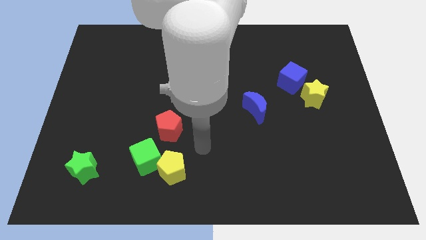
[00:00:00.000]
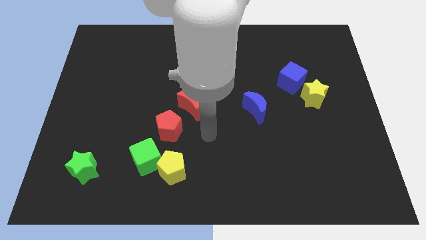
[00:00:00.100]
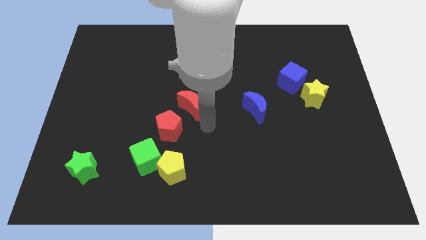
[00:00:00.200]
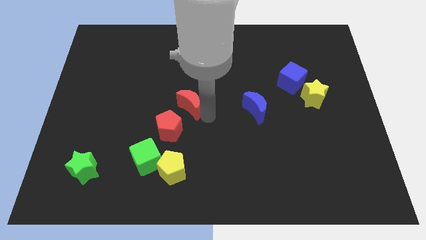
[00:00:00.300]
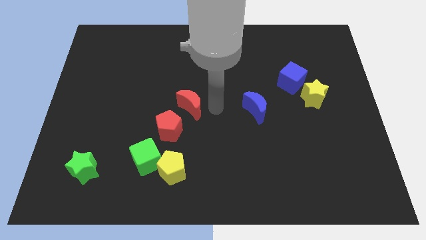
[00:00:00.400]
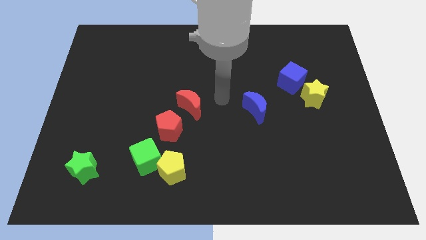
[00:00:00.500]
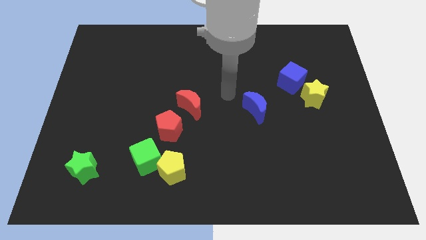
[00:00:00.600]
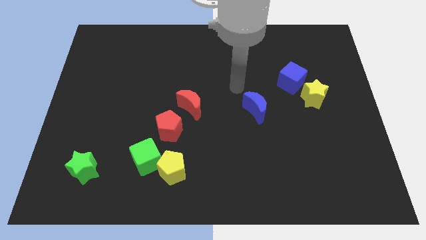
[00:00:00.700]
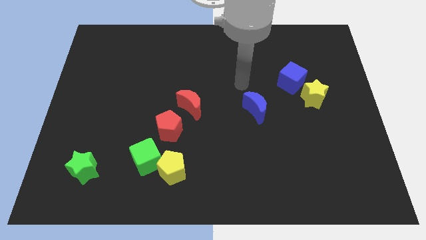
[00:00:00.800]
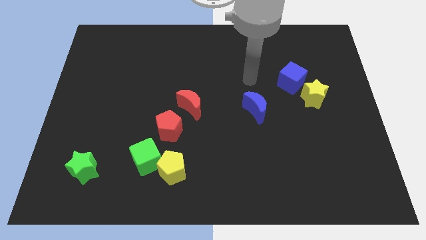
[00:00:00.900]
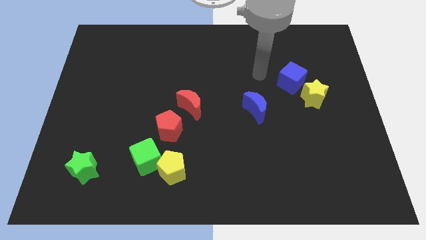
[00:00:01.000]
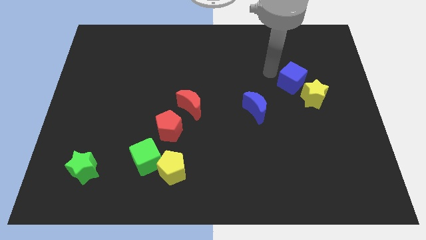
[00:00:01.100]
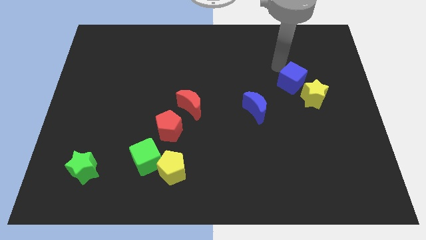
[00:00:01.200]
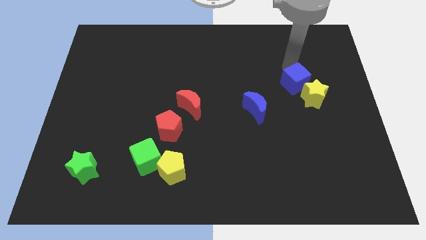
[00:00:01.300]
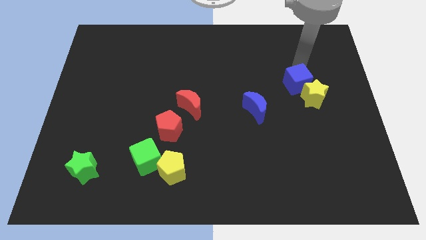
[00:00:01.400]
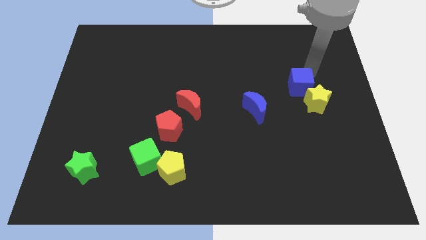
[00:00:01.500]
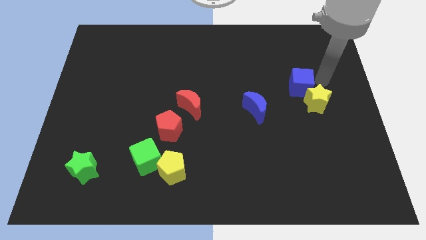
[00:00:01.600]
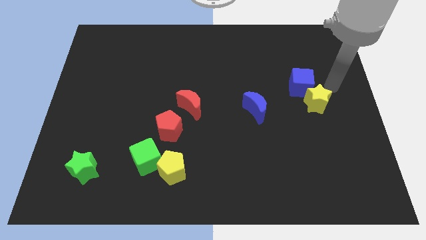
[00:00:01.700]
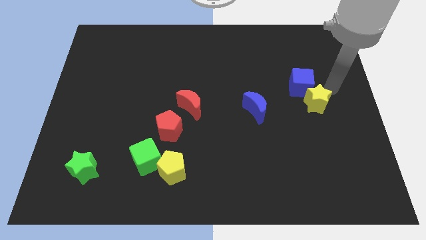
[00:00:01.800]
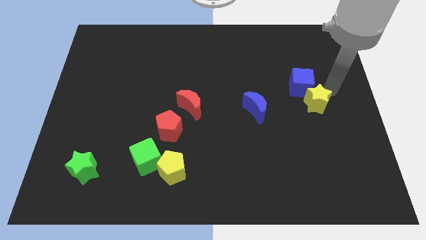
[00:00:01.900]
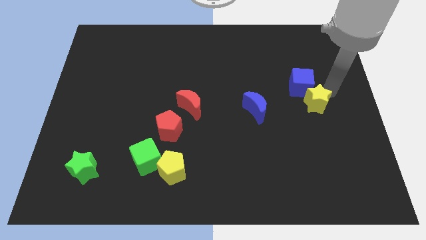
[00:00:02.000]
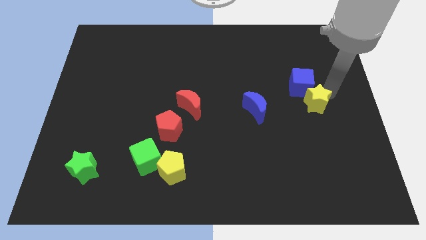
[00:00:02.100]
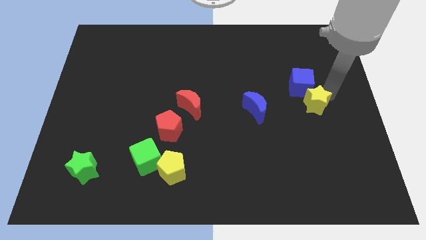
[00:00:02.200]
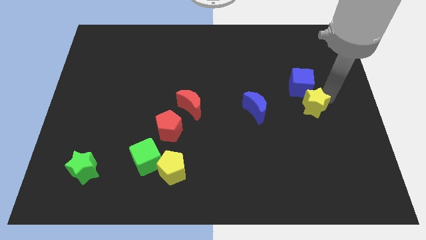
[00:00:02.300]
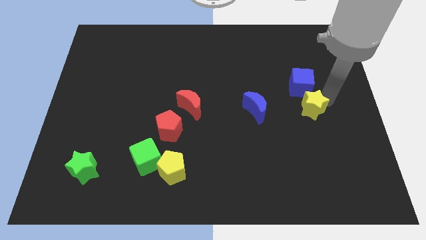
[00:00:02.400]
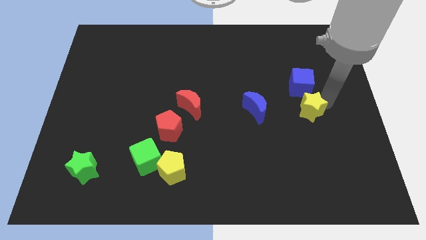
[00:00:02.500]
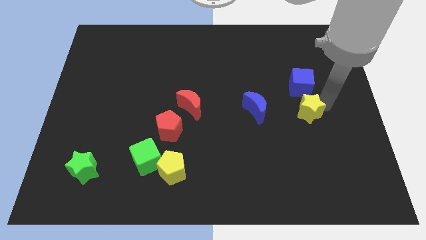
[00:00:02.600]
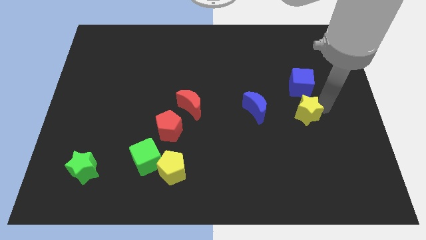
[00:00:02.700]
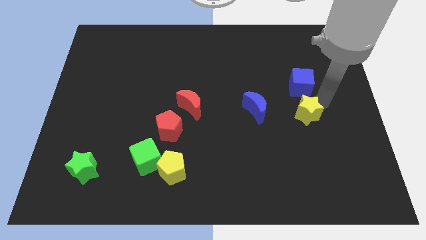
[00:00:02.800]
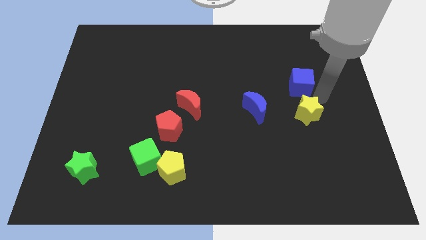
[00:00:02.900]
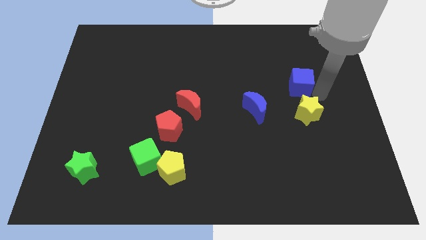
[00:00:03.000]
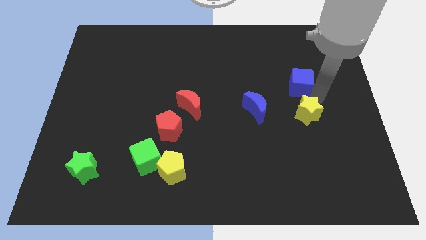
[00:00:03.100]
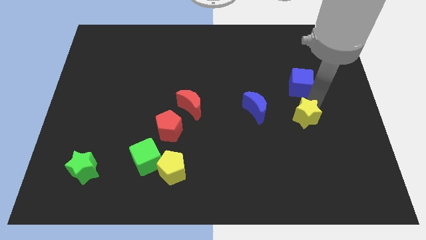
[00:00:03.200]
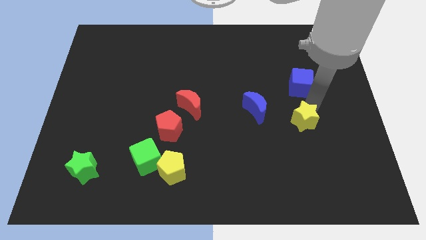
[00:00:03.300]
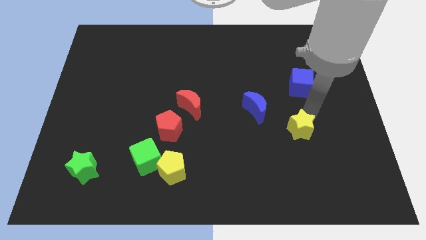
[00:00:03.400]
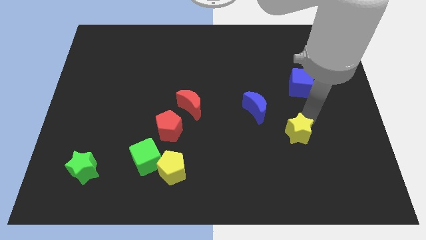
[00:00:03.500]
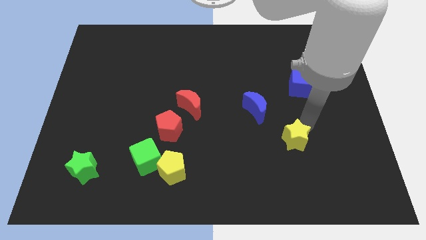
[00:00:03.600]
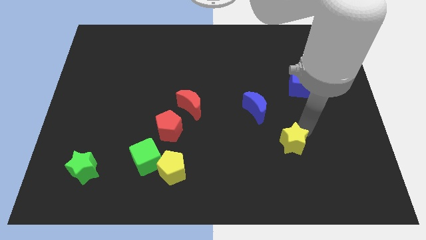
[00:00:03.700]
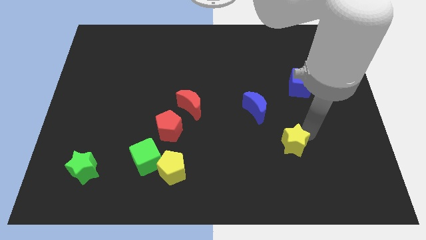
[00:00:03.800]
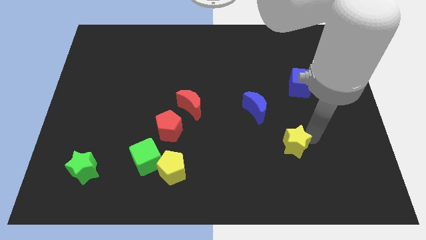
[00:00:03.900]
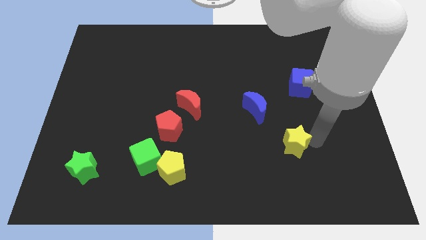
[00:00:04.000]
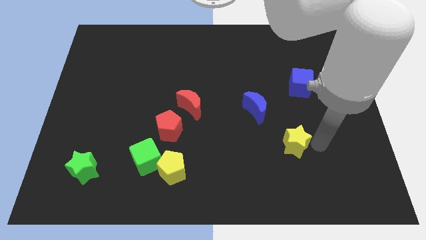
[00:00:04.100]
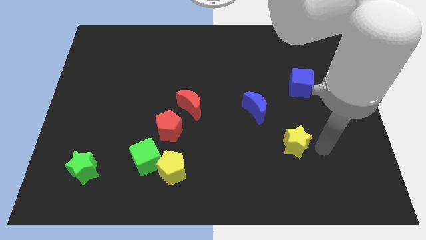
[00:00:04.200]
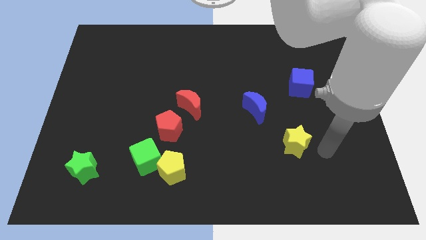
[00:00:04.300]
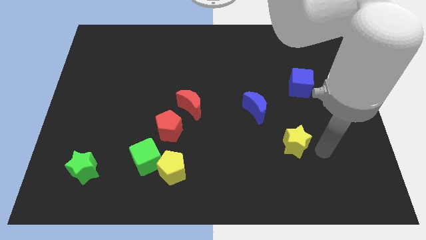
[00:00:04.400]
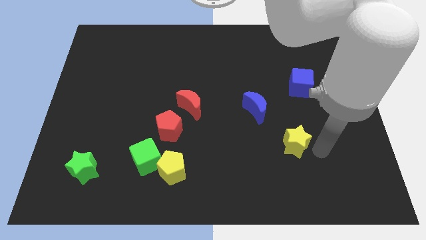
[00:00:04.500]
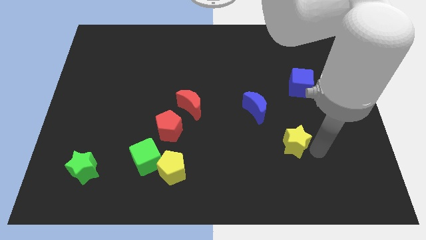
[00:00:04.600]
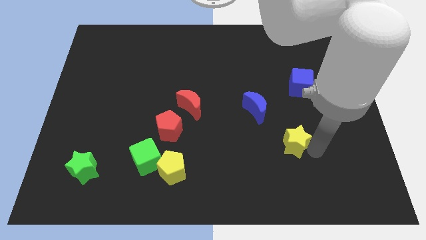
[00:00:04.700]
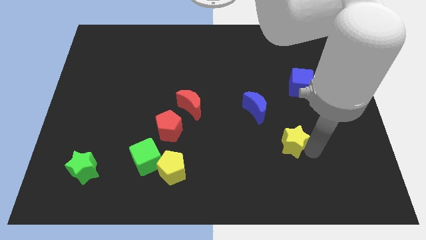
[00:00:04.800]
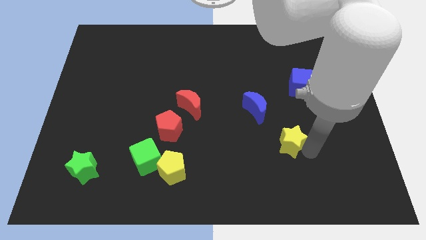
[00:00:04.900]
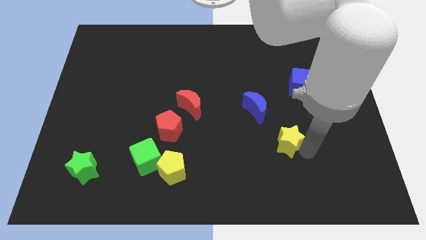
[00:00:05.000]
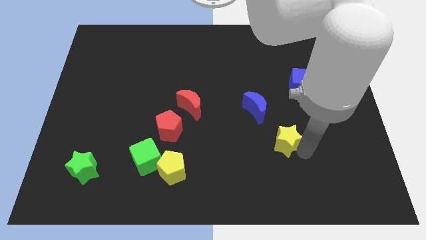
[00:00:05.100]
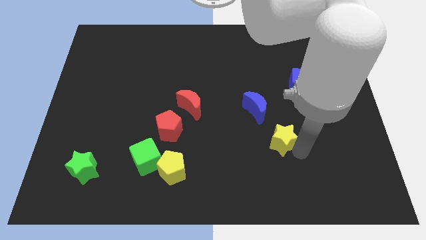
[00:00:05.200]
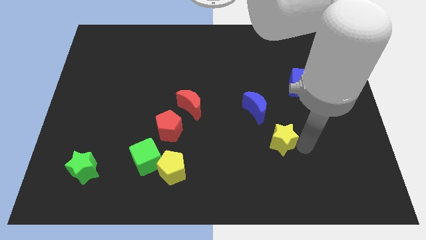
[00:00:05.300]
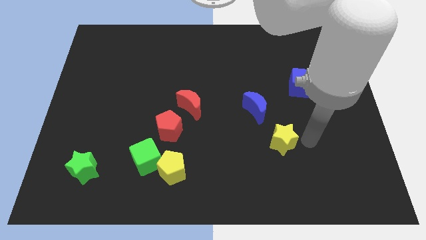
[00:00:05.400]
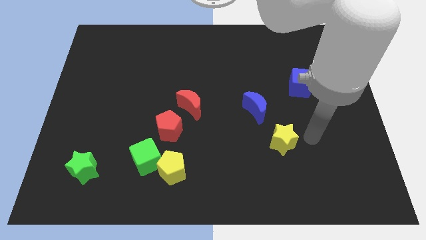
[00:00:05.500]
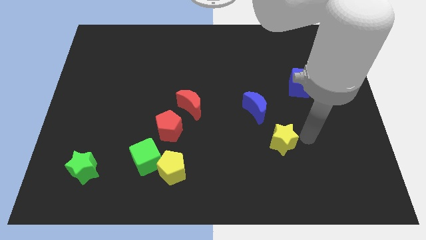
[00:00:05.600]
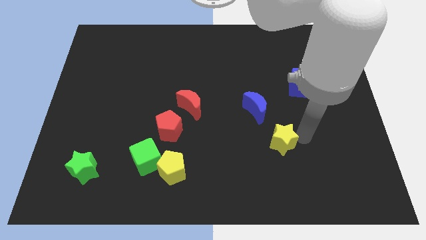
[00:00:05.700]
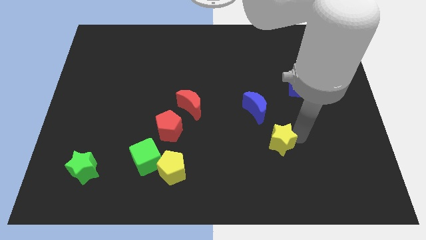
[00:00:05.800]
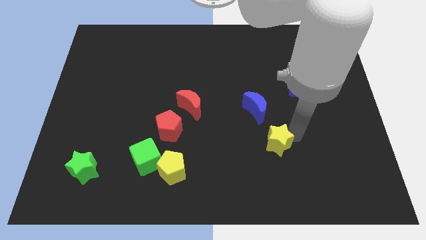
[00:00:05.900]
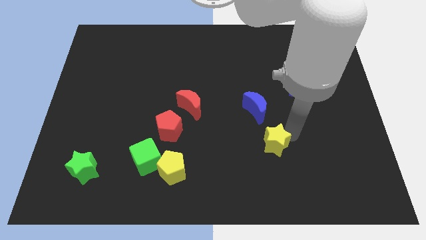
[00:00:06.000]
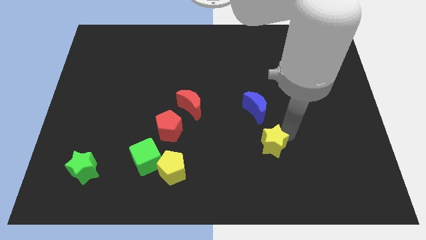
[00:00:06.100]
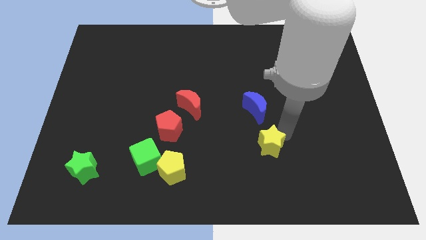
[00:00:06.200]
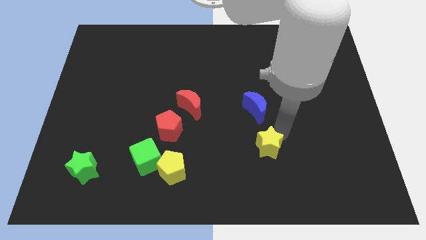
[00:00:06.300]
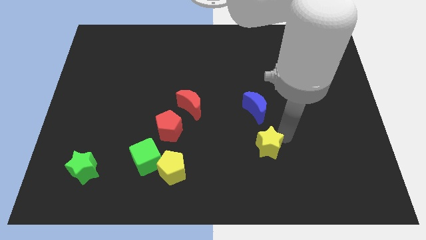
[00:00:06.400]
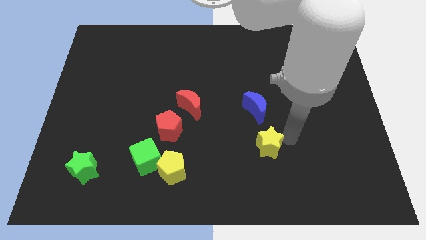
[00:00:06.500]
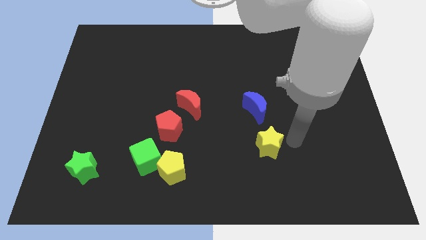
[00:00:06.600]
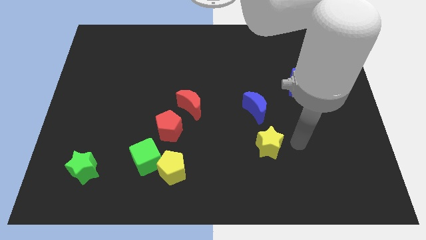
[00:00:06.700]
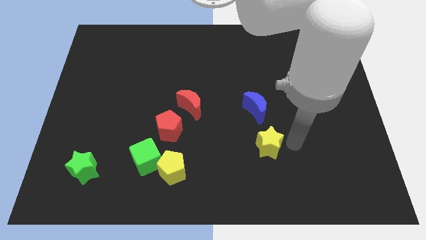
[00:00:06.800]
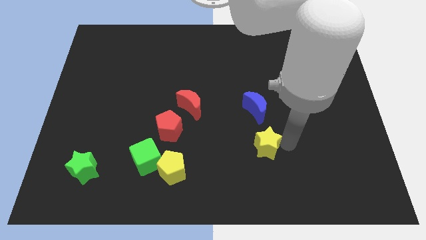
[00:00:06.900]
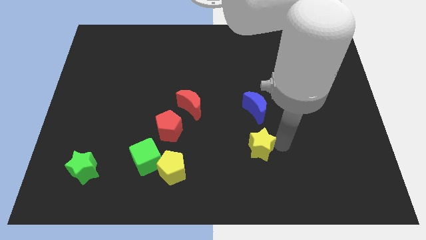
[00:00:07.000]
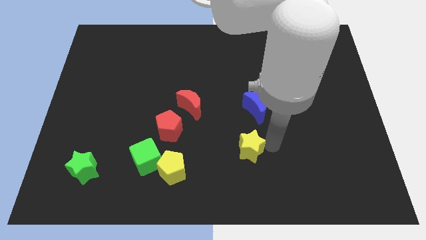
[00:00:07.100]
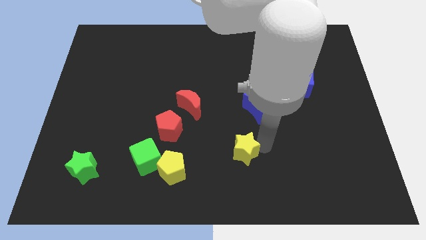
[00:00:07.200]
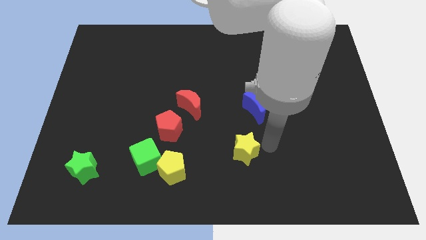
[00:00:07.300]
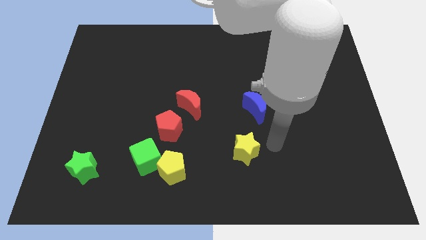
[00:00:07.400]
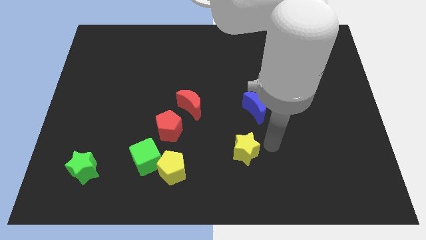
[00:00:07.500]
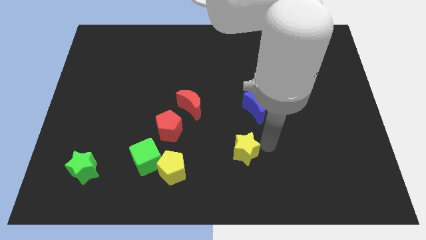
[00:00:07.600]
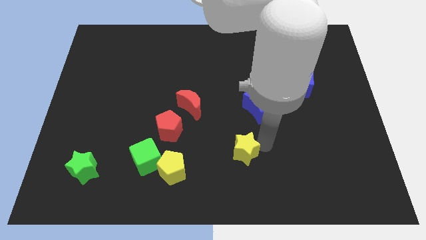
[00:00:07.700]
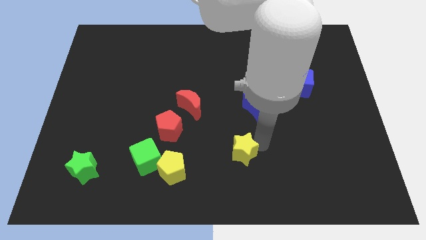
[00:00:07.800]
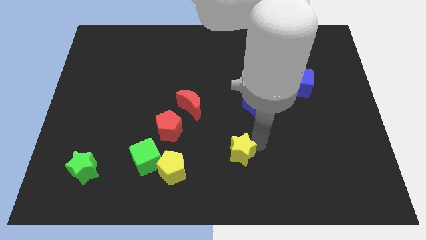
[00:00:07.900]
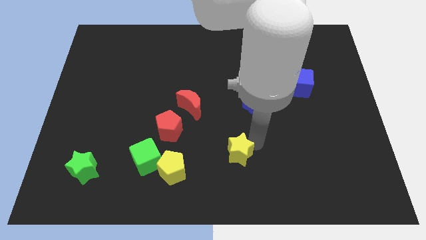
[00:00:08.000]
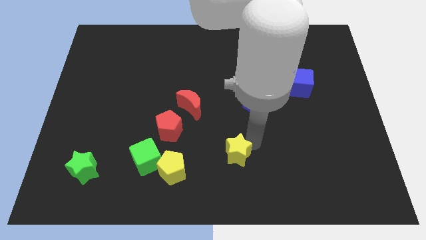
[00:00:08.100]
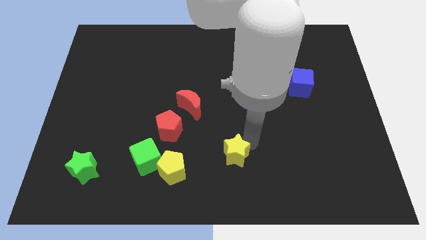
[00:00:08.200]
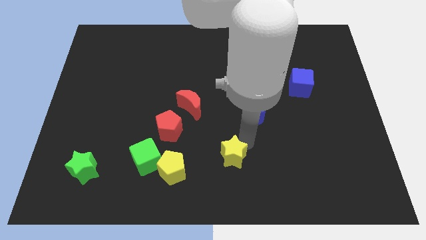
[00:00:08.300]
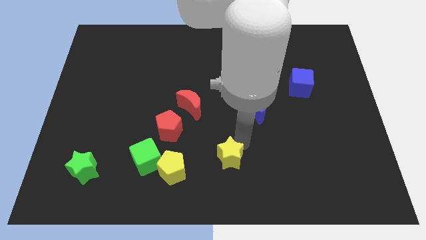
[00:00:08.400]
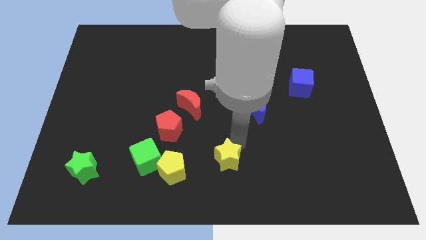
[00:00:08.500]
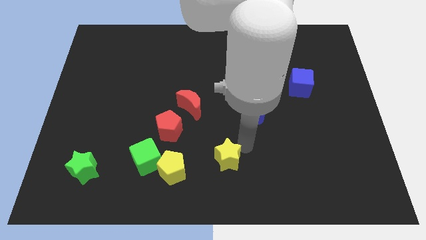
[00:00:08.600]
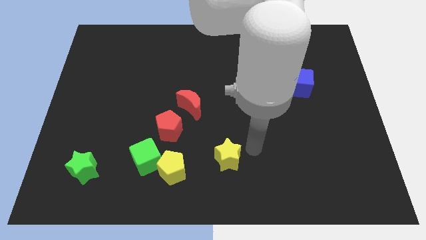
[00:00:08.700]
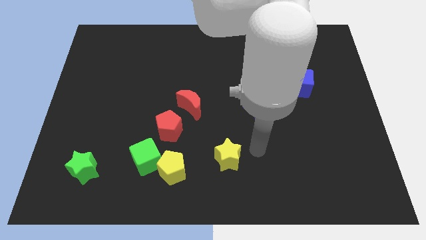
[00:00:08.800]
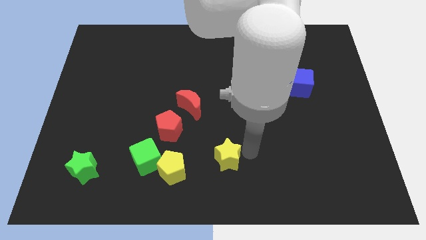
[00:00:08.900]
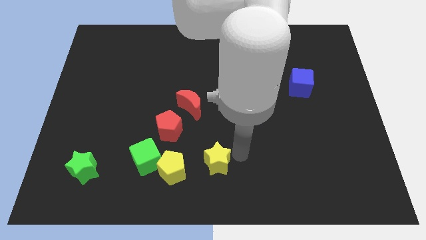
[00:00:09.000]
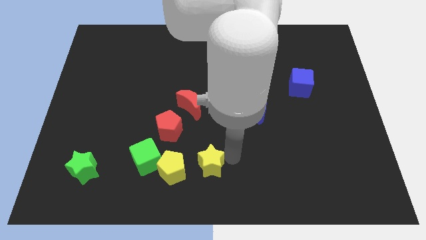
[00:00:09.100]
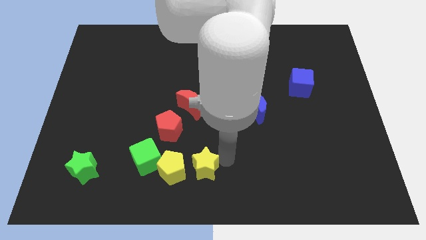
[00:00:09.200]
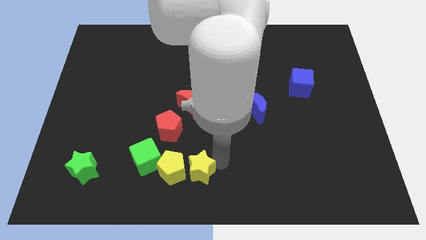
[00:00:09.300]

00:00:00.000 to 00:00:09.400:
put the yellow star to the yellow pentagon
